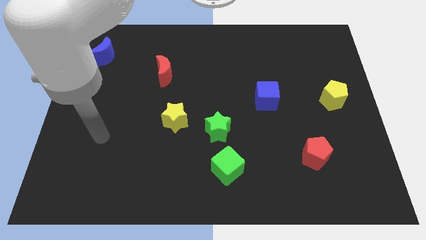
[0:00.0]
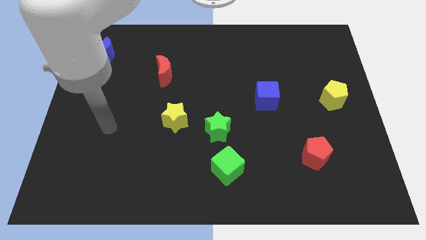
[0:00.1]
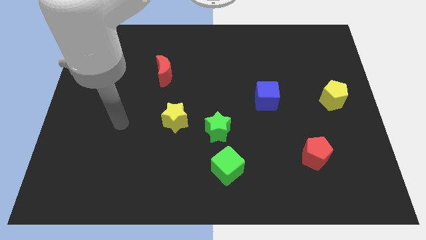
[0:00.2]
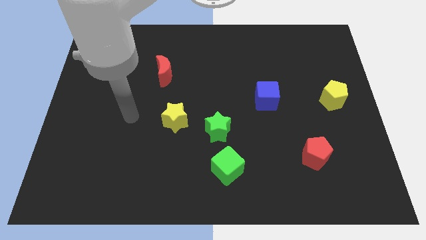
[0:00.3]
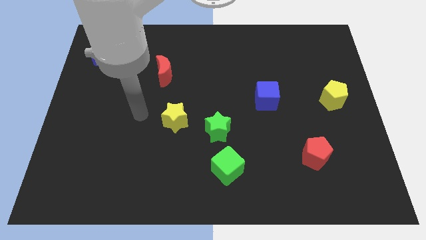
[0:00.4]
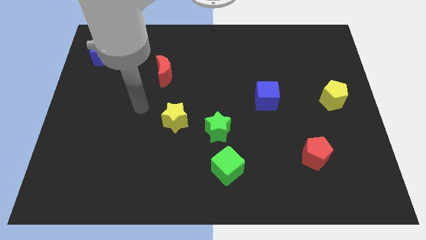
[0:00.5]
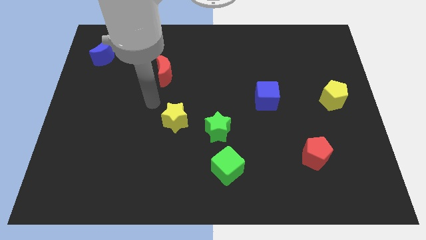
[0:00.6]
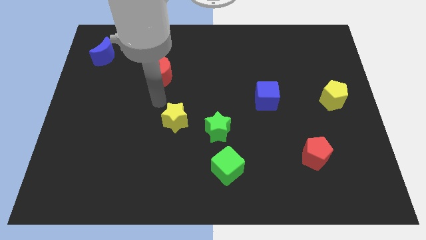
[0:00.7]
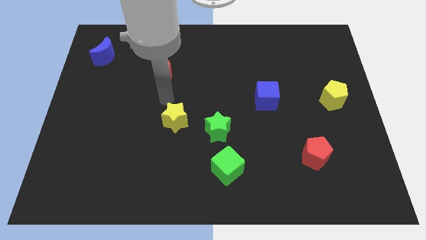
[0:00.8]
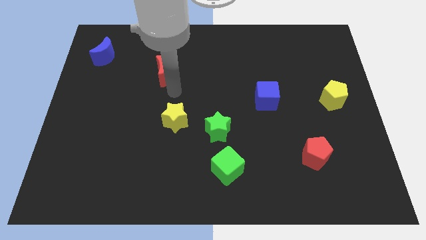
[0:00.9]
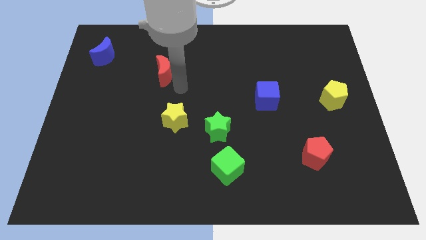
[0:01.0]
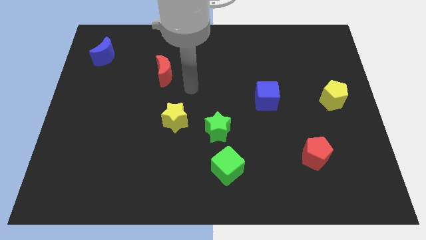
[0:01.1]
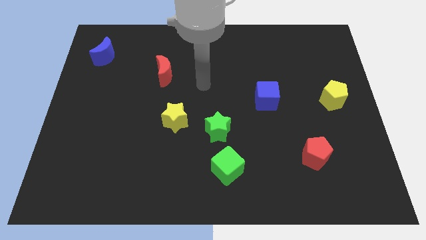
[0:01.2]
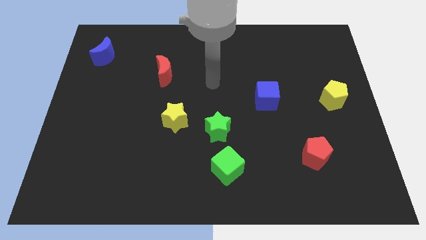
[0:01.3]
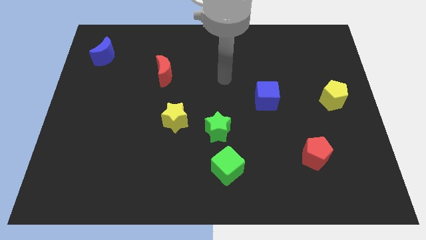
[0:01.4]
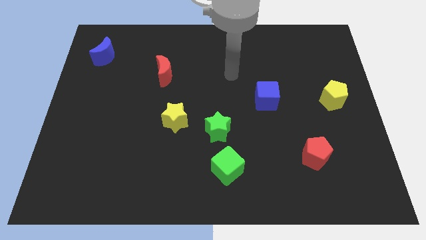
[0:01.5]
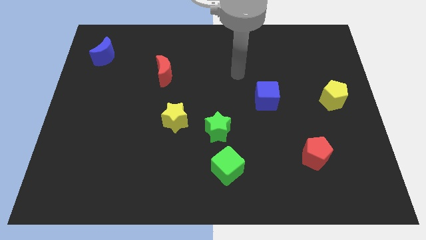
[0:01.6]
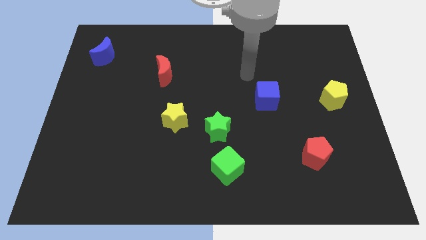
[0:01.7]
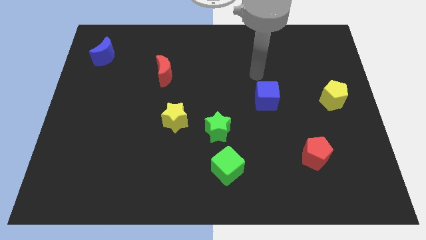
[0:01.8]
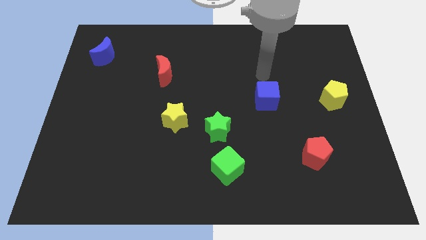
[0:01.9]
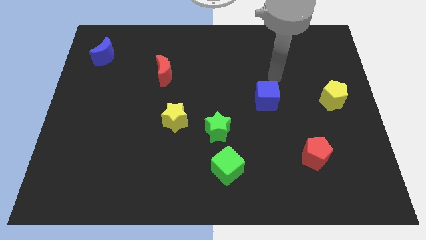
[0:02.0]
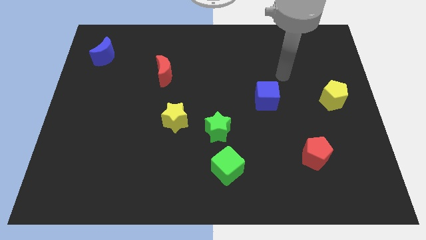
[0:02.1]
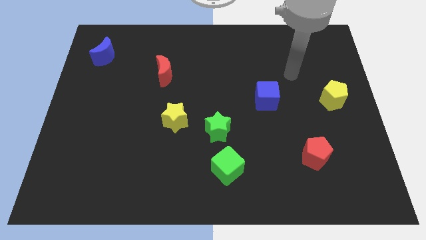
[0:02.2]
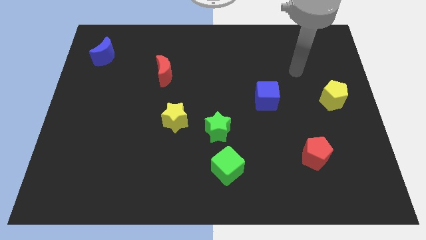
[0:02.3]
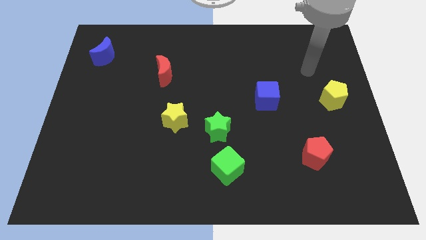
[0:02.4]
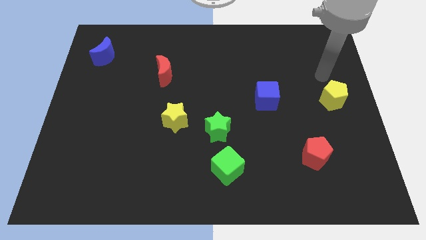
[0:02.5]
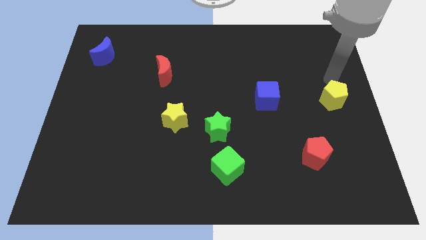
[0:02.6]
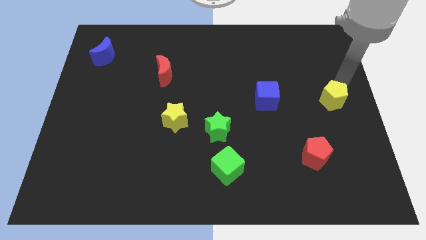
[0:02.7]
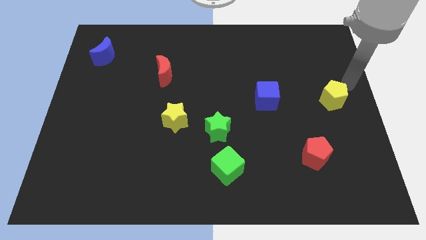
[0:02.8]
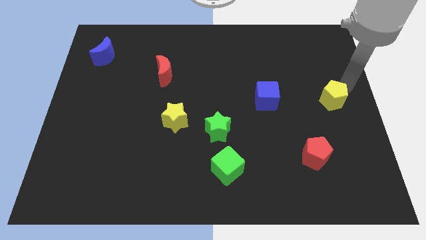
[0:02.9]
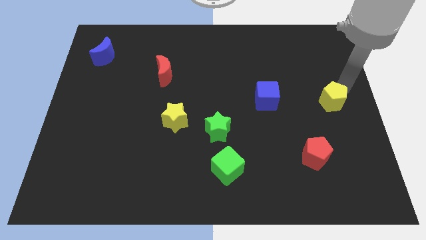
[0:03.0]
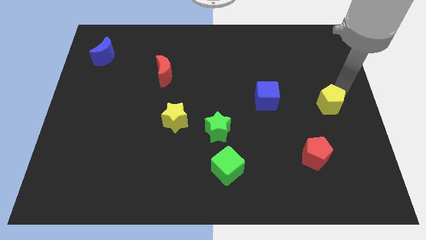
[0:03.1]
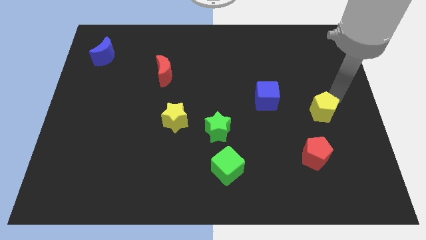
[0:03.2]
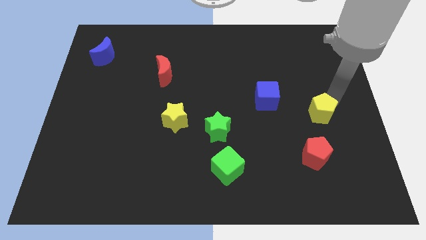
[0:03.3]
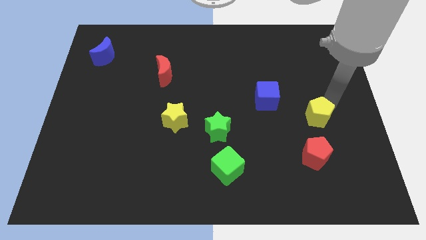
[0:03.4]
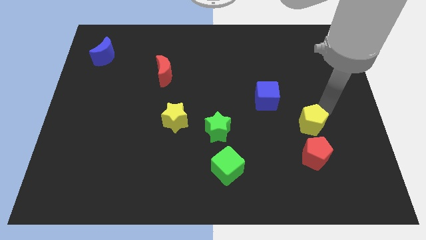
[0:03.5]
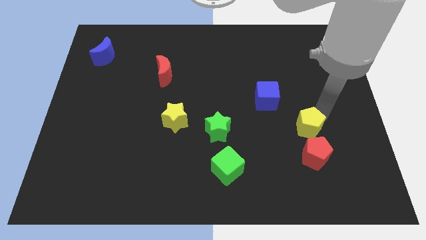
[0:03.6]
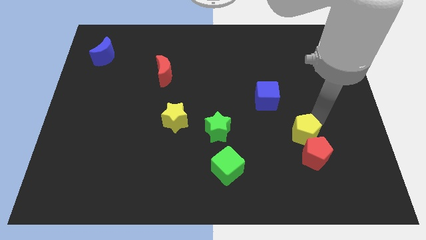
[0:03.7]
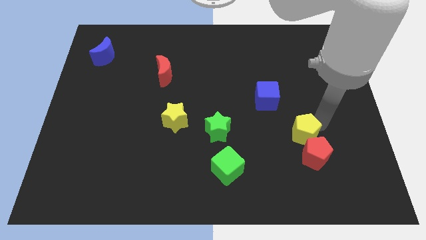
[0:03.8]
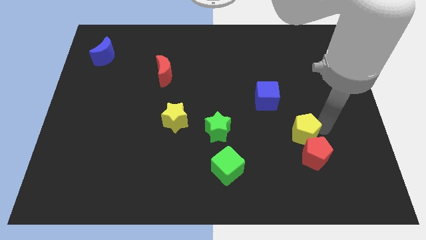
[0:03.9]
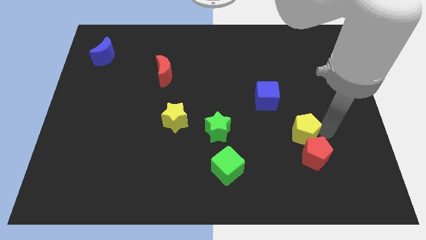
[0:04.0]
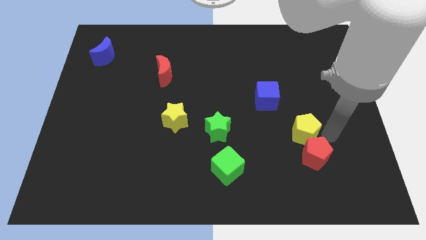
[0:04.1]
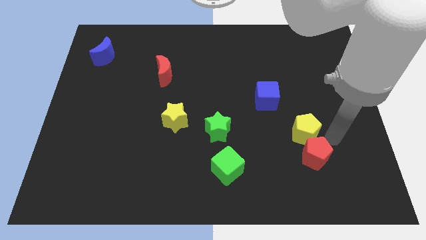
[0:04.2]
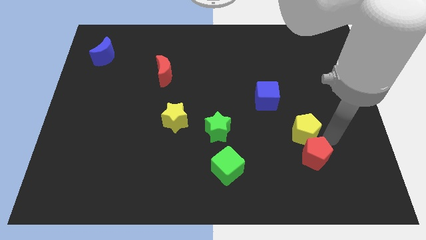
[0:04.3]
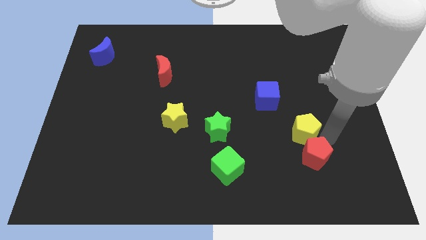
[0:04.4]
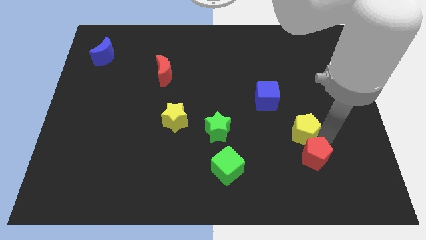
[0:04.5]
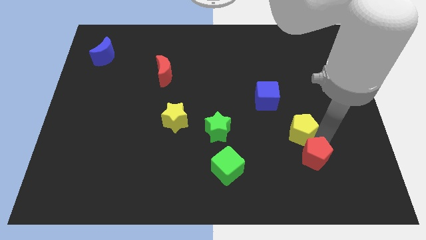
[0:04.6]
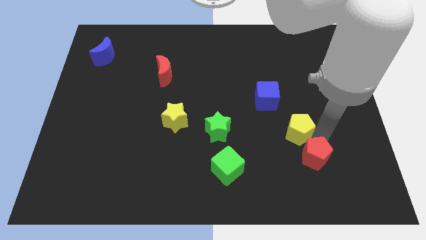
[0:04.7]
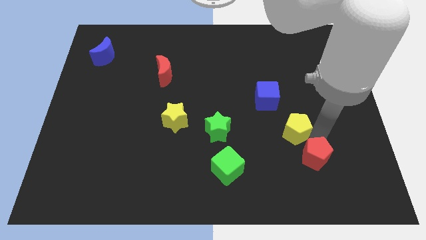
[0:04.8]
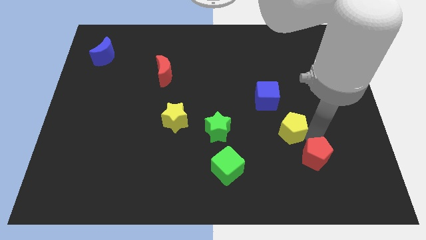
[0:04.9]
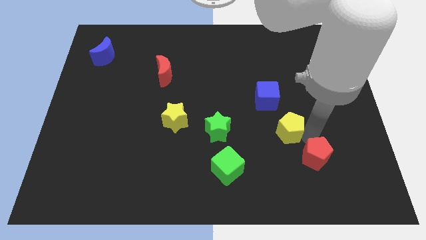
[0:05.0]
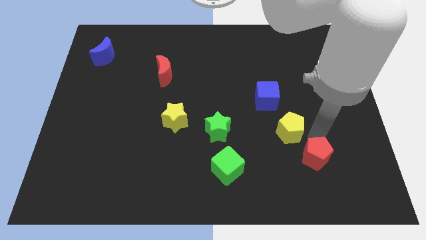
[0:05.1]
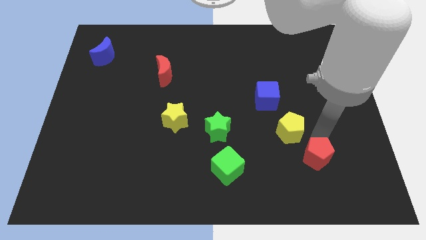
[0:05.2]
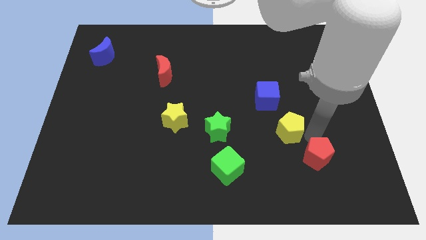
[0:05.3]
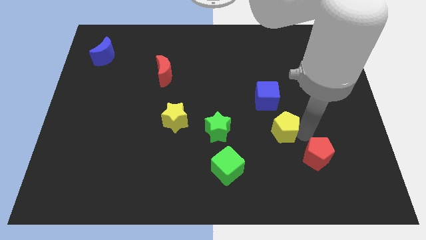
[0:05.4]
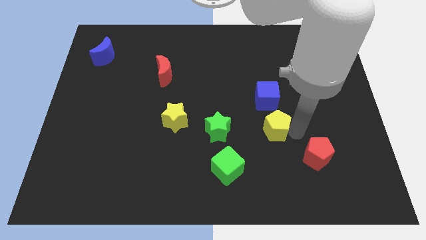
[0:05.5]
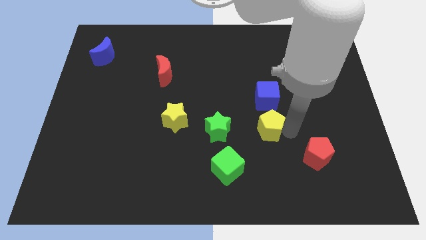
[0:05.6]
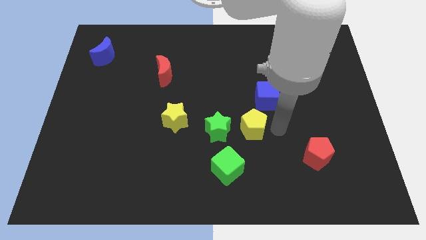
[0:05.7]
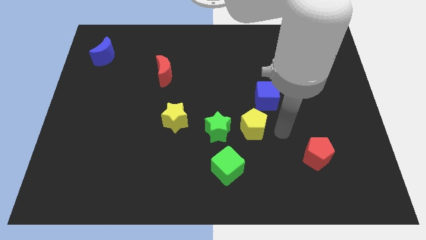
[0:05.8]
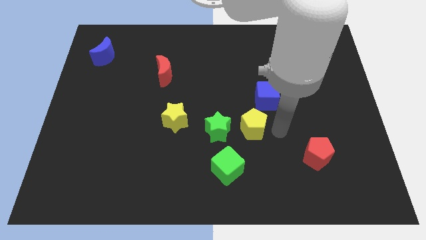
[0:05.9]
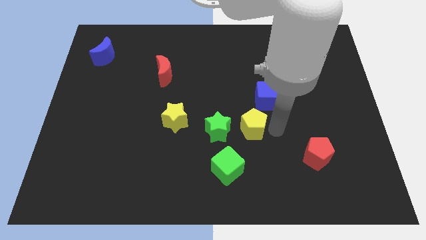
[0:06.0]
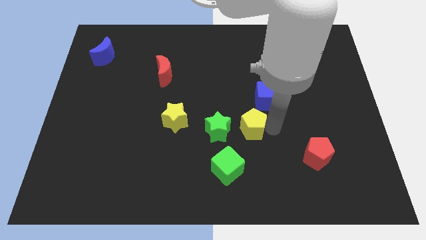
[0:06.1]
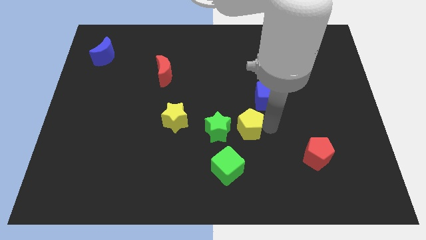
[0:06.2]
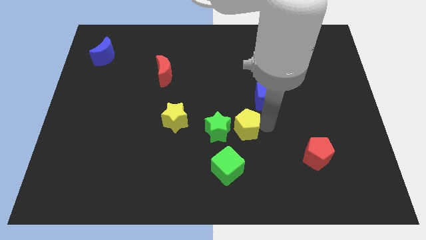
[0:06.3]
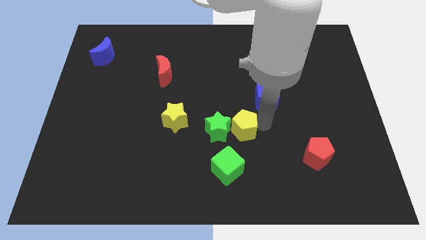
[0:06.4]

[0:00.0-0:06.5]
slide the yellow pentagon just right of the yellow star
